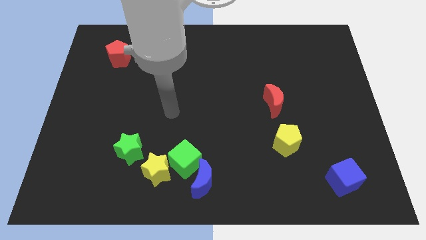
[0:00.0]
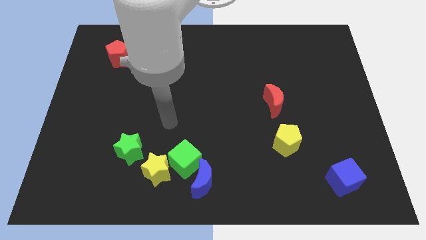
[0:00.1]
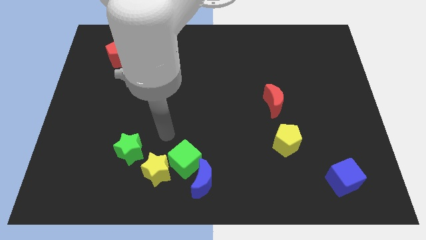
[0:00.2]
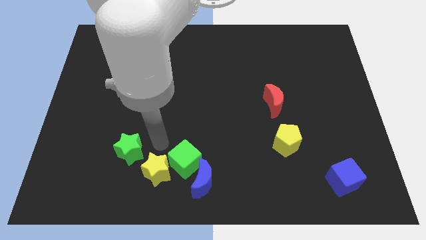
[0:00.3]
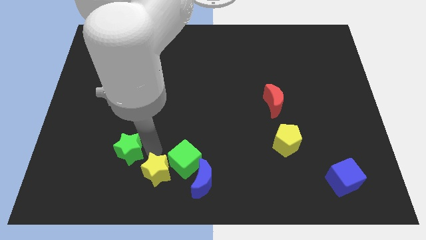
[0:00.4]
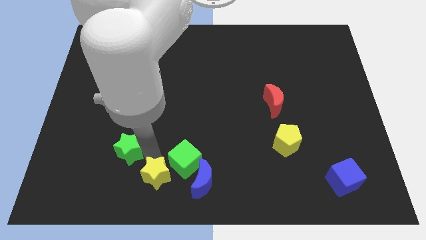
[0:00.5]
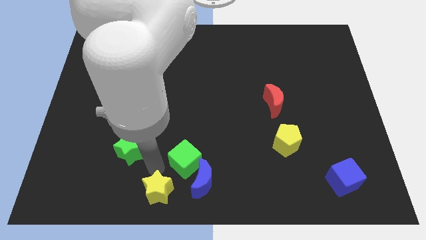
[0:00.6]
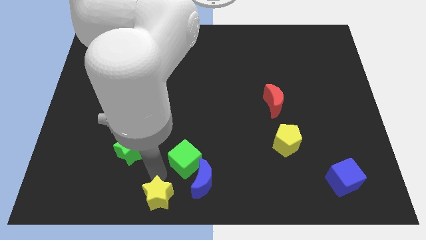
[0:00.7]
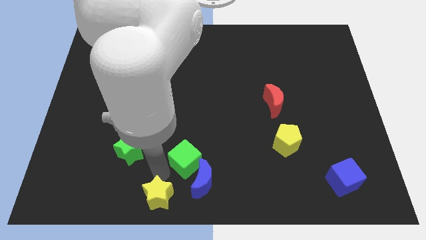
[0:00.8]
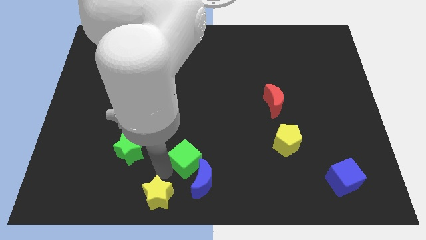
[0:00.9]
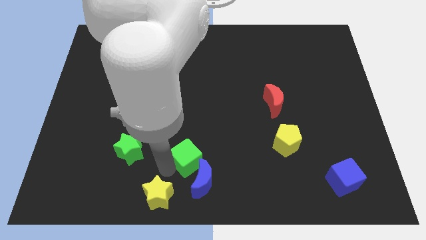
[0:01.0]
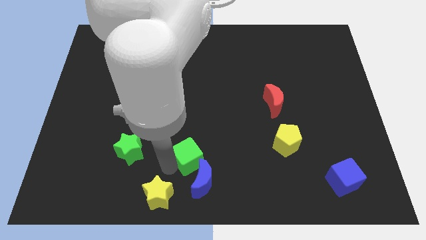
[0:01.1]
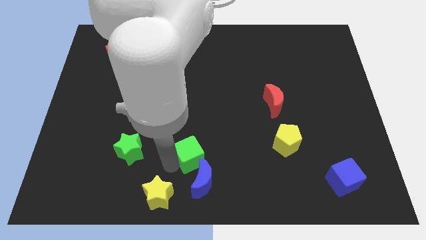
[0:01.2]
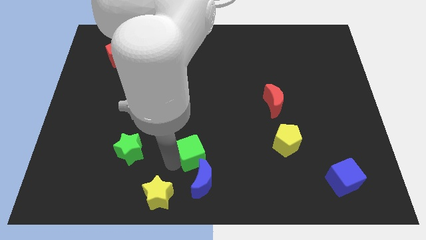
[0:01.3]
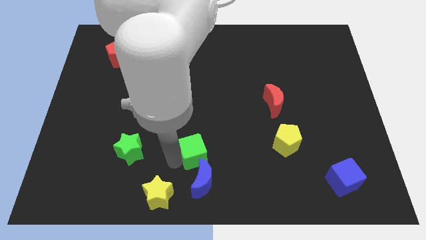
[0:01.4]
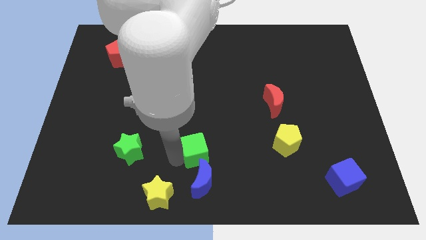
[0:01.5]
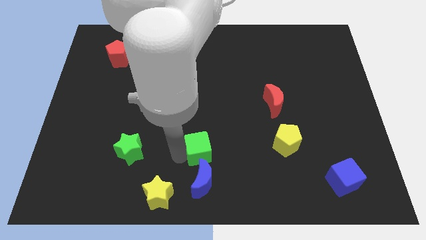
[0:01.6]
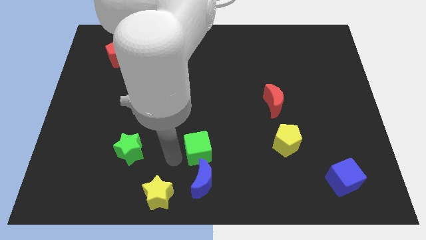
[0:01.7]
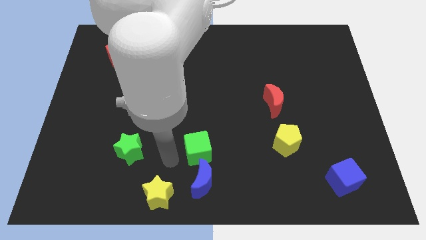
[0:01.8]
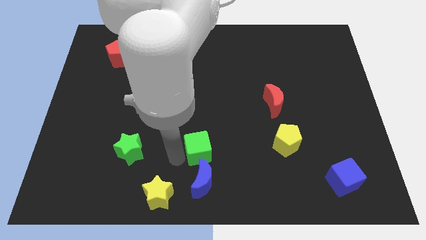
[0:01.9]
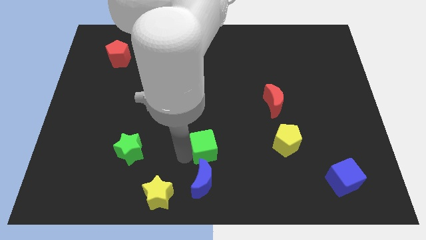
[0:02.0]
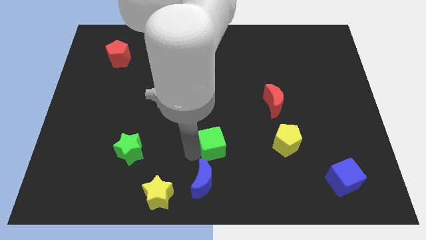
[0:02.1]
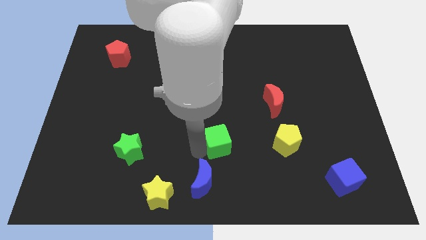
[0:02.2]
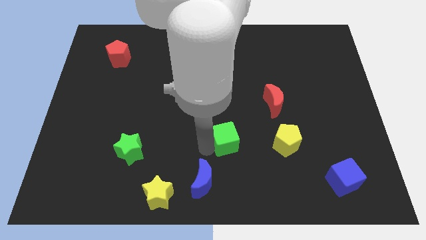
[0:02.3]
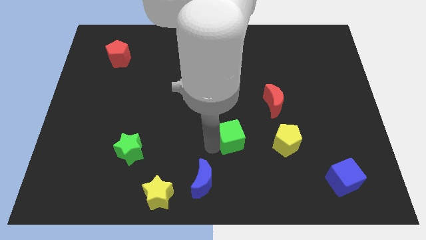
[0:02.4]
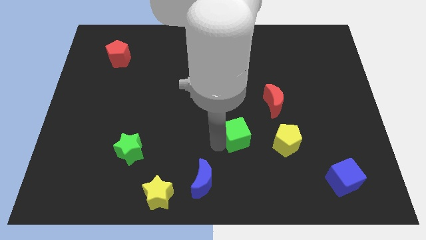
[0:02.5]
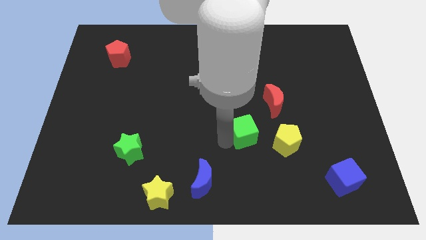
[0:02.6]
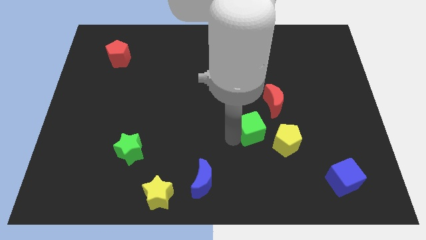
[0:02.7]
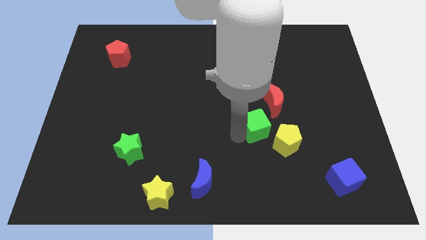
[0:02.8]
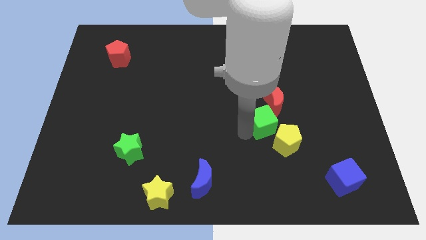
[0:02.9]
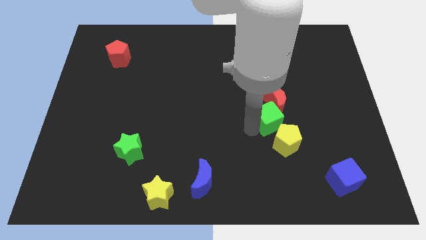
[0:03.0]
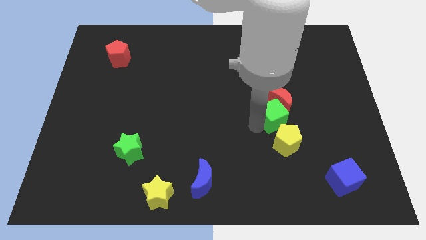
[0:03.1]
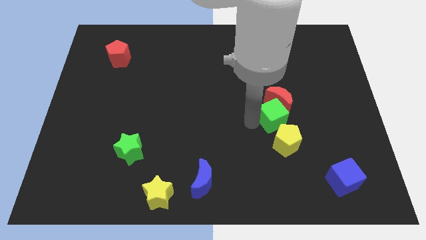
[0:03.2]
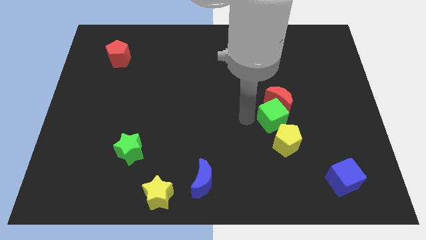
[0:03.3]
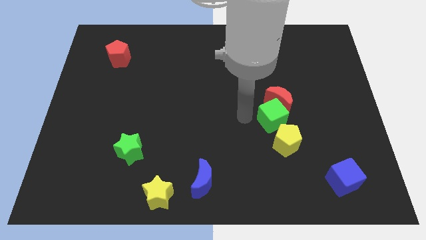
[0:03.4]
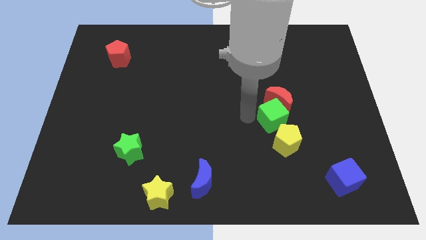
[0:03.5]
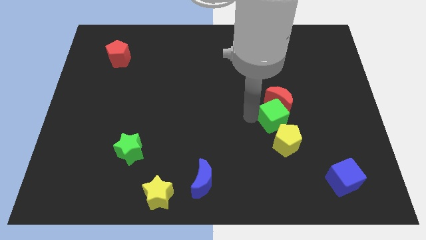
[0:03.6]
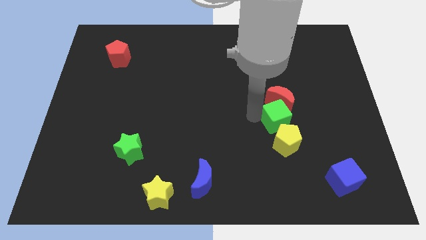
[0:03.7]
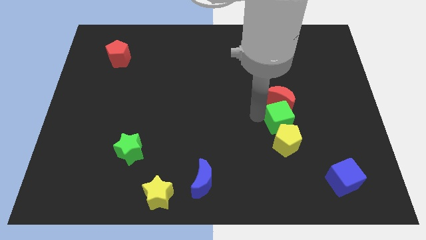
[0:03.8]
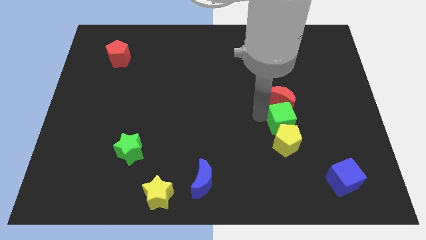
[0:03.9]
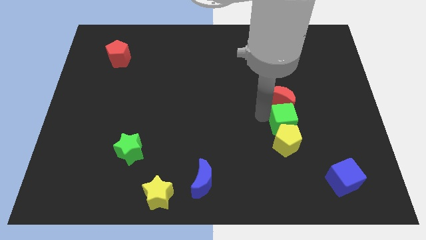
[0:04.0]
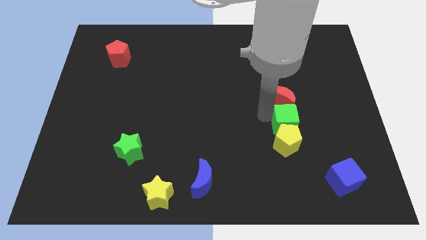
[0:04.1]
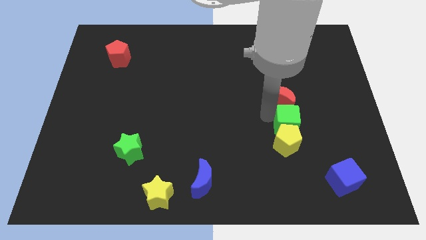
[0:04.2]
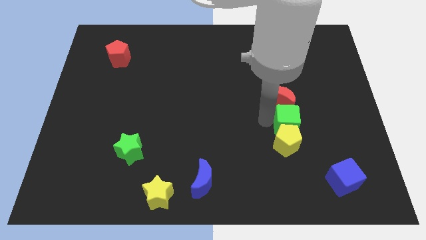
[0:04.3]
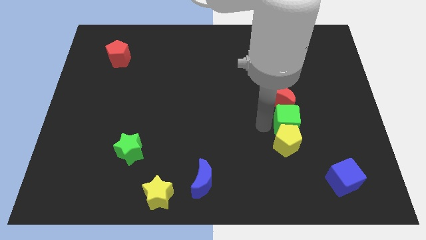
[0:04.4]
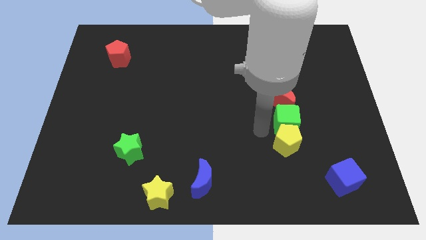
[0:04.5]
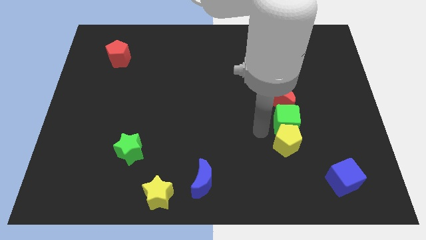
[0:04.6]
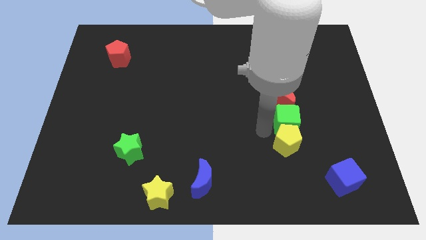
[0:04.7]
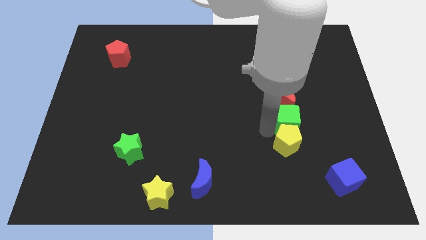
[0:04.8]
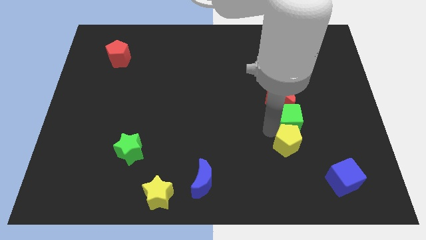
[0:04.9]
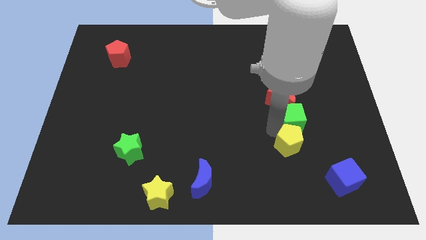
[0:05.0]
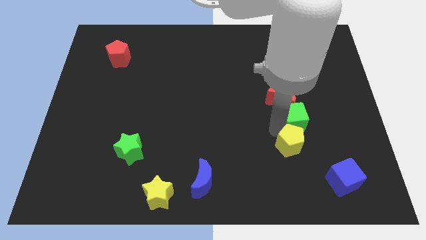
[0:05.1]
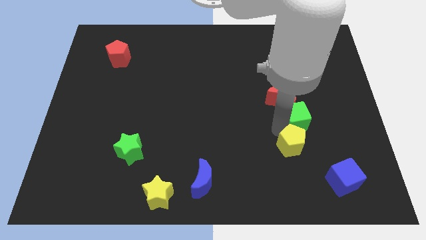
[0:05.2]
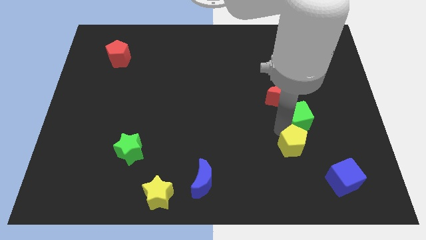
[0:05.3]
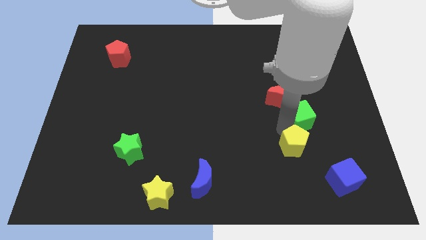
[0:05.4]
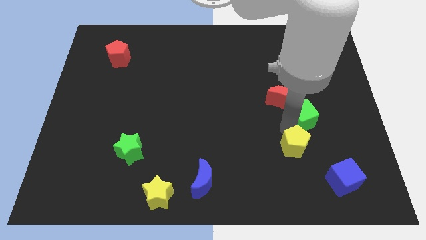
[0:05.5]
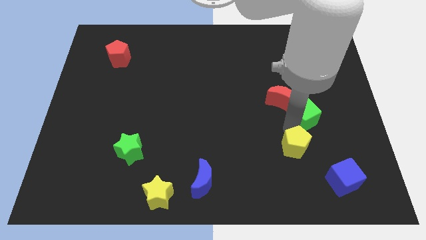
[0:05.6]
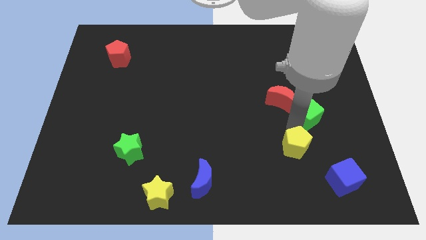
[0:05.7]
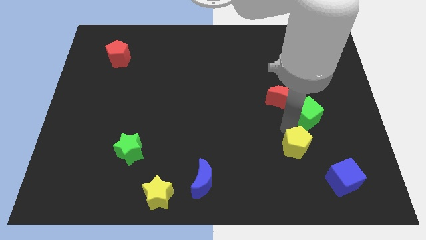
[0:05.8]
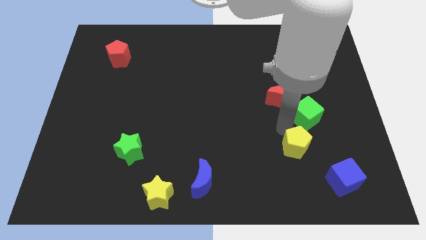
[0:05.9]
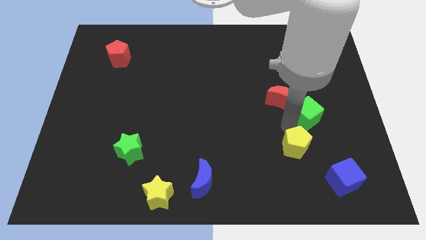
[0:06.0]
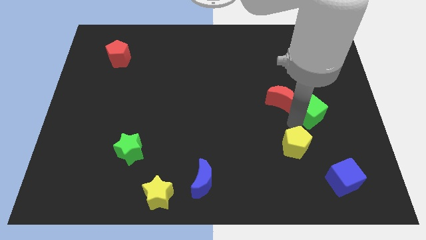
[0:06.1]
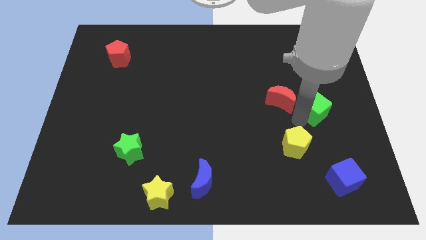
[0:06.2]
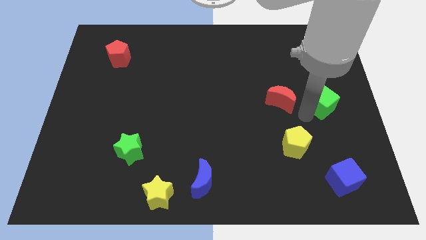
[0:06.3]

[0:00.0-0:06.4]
put the green cube to the right side of the board
